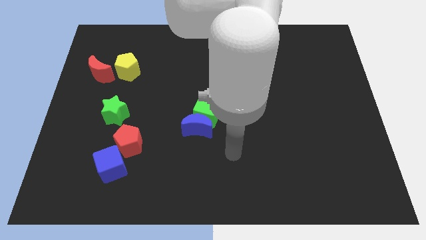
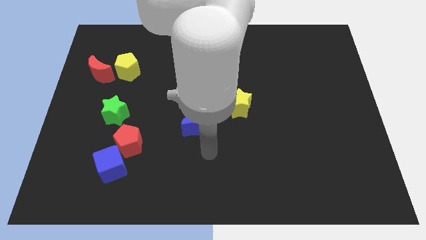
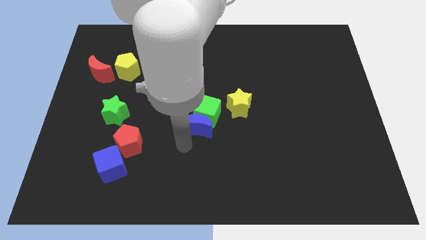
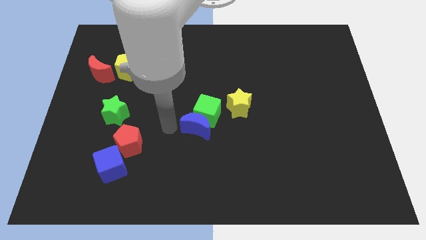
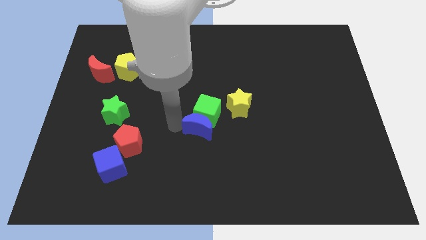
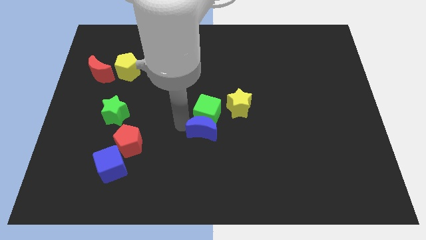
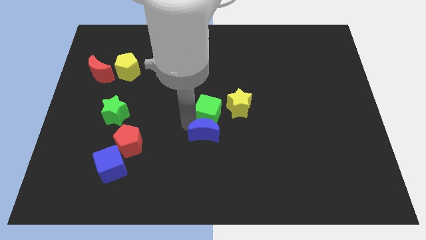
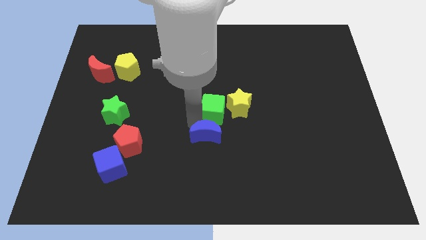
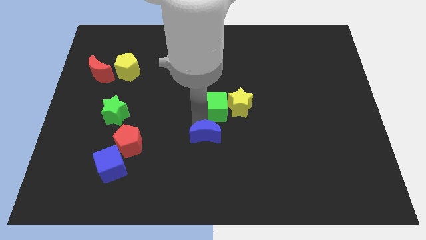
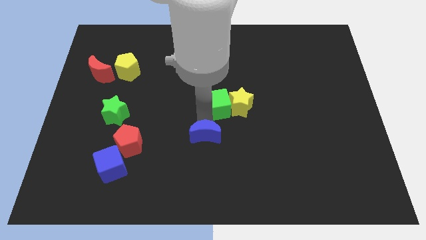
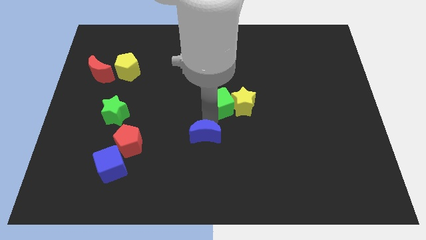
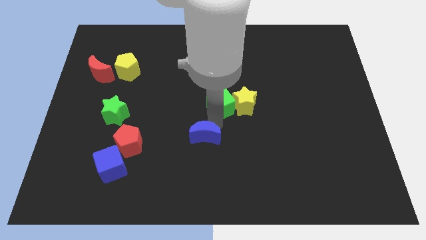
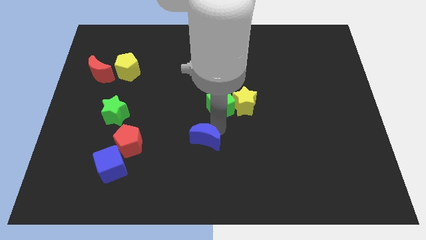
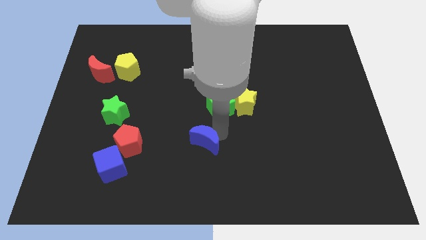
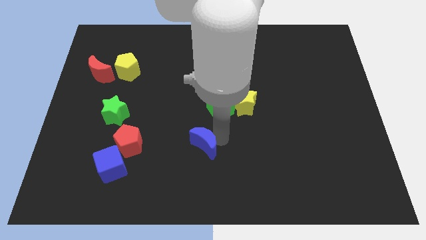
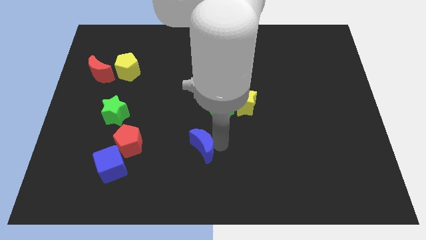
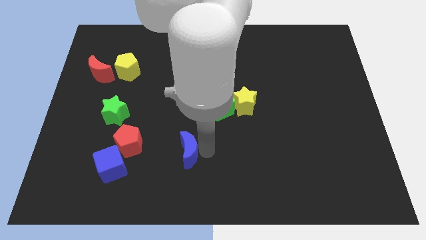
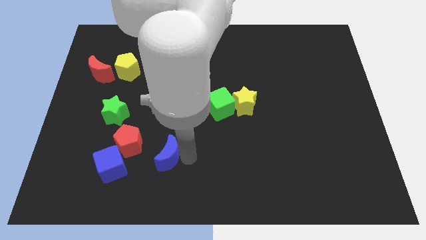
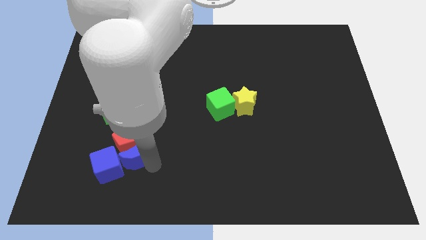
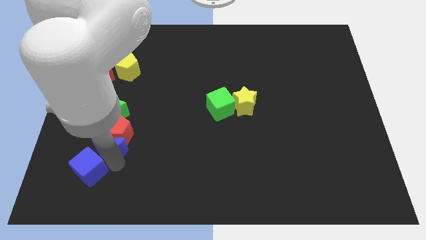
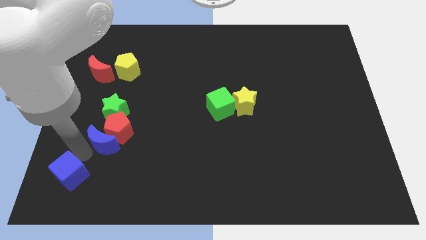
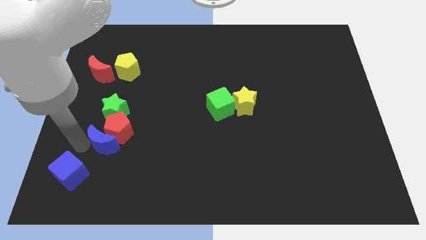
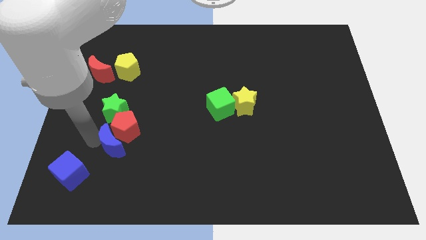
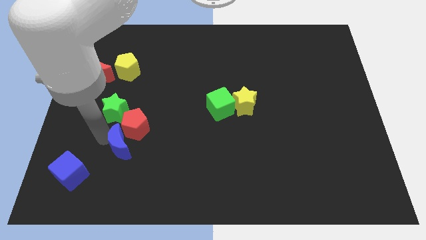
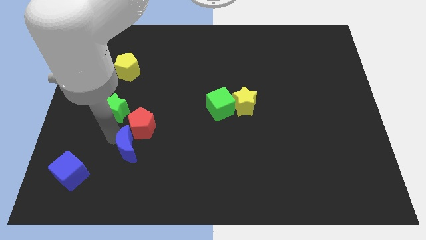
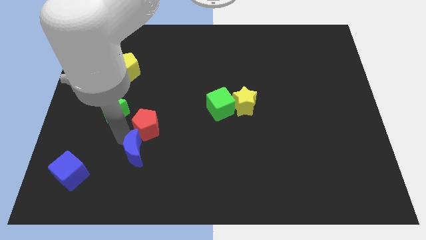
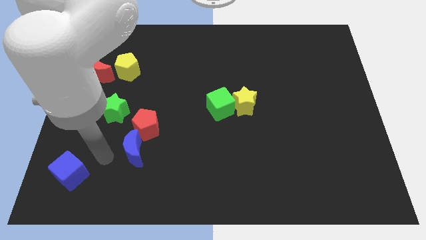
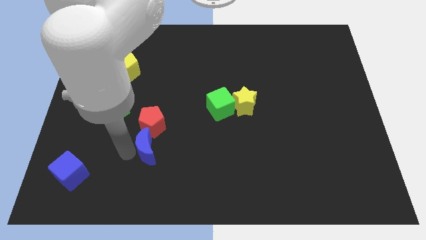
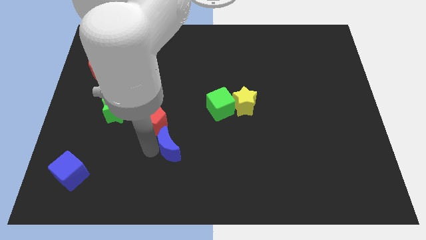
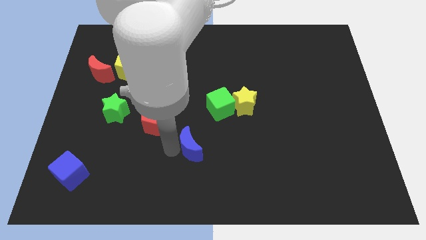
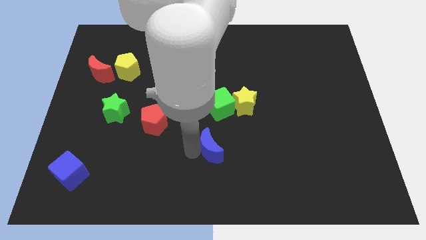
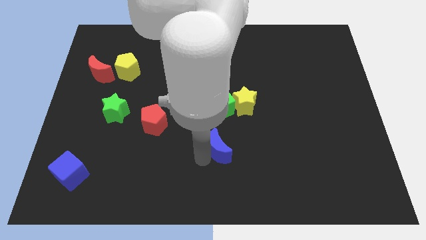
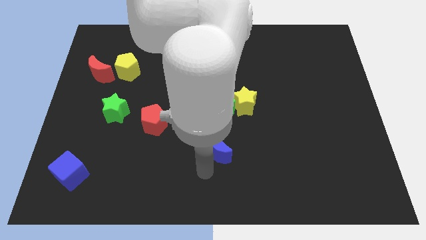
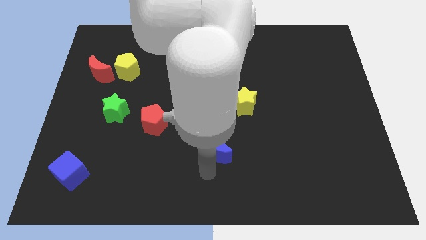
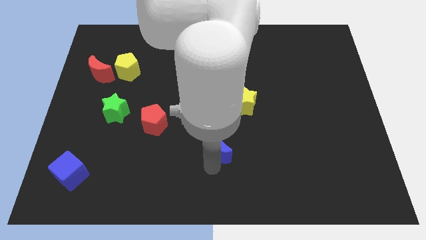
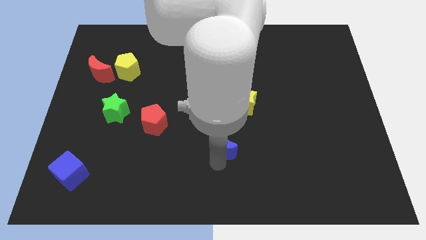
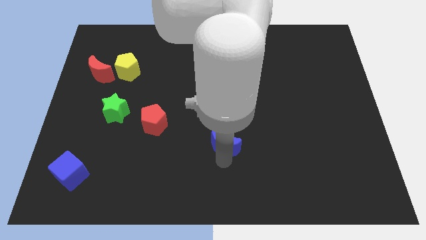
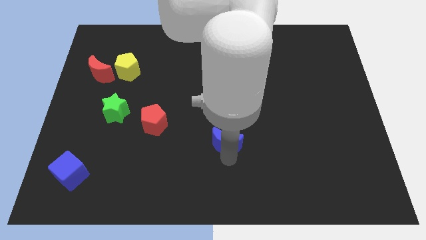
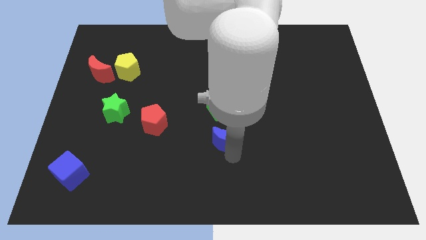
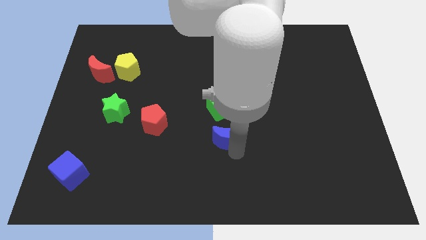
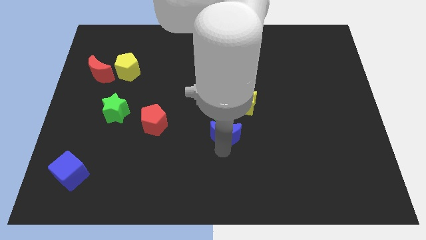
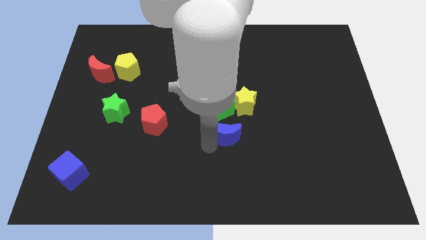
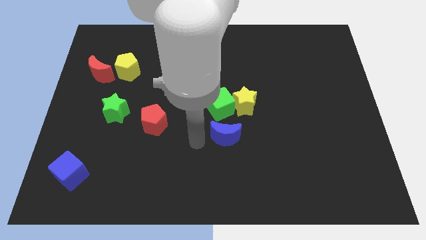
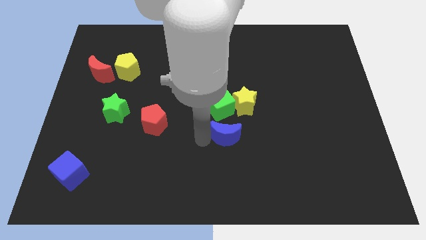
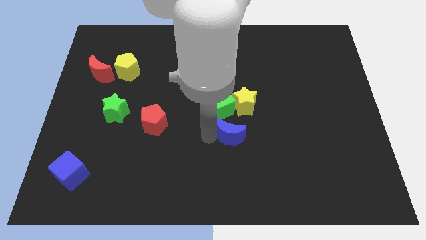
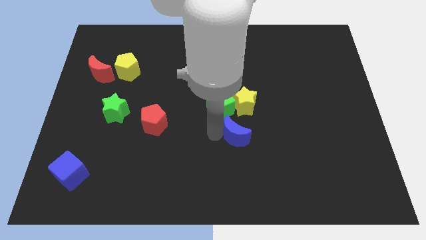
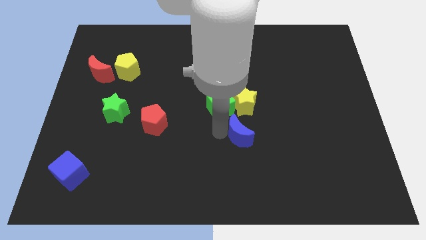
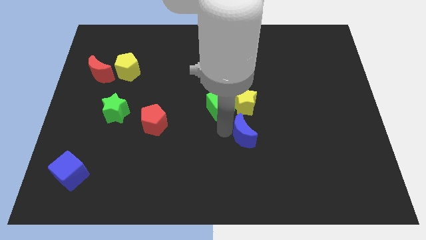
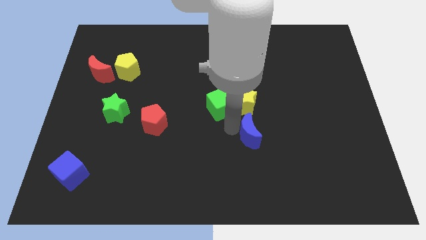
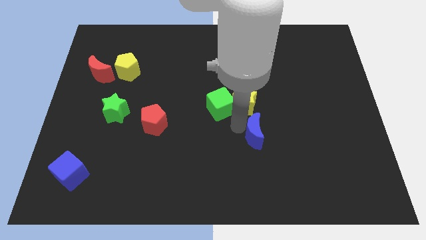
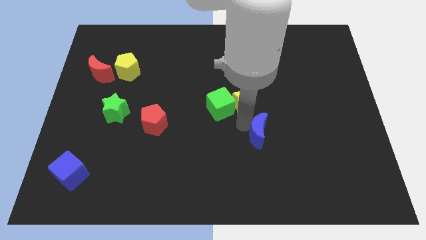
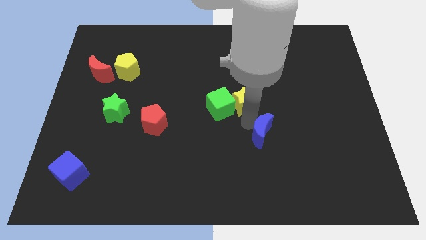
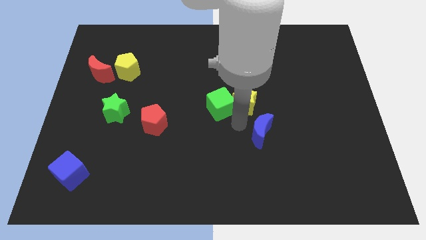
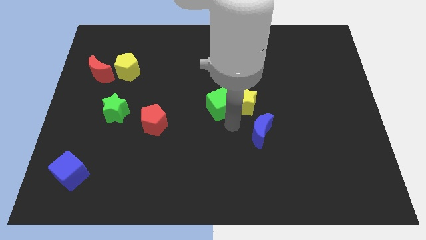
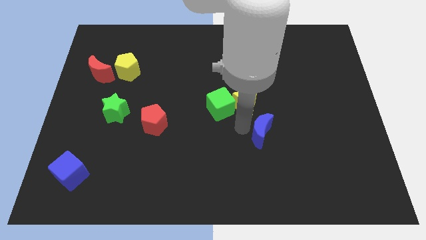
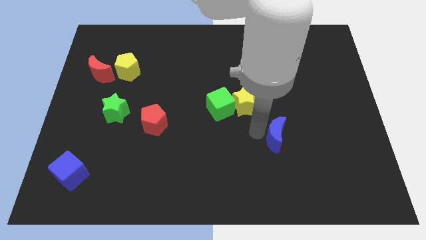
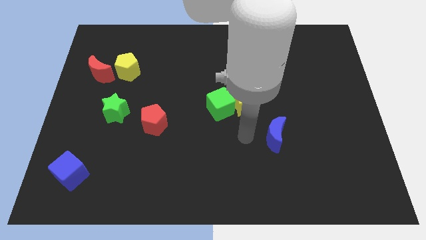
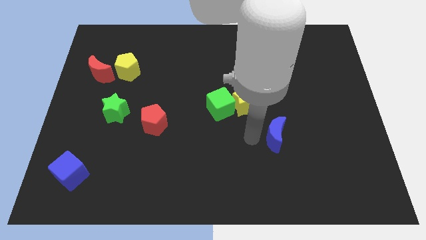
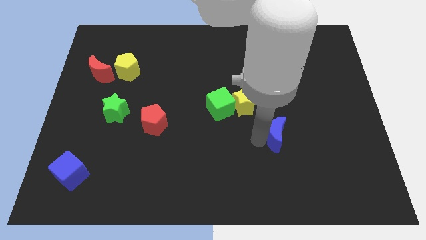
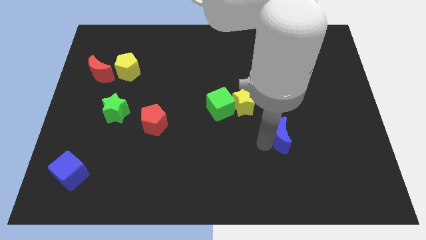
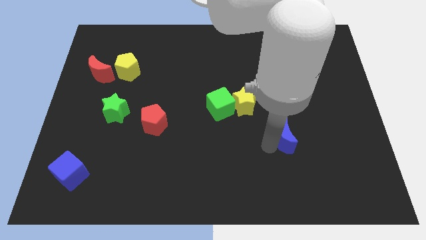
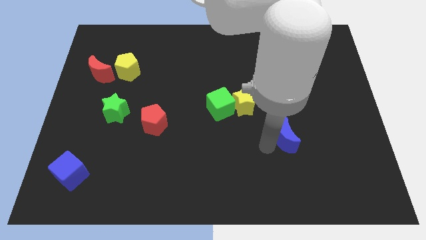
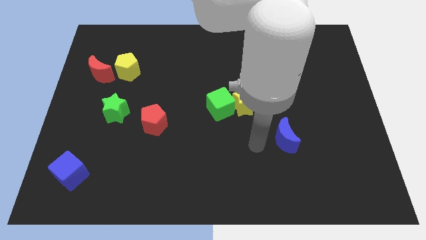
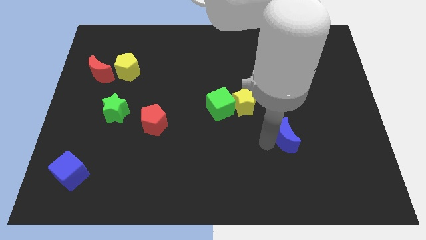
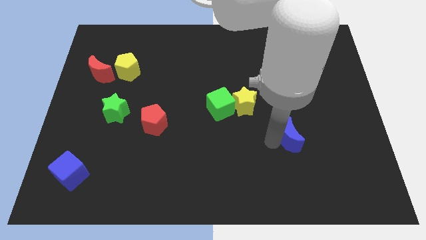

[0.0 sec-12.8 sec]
slide the blue moon right

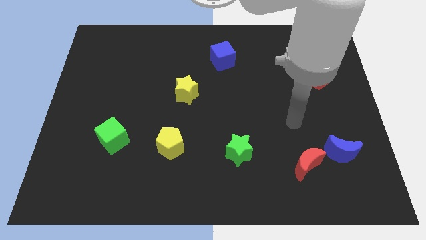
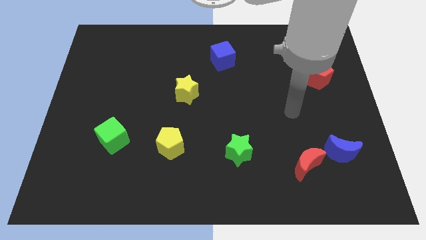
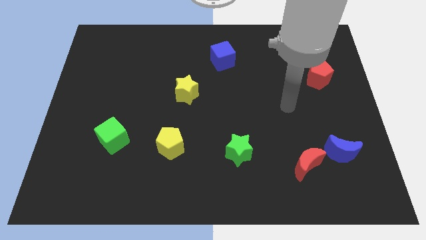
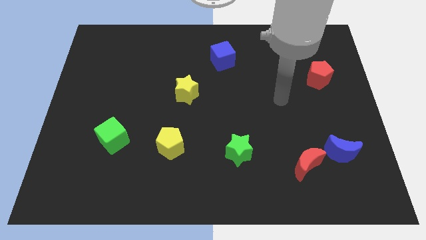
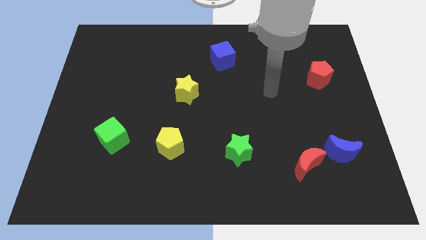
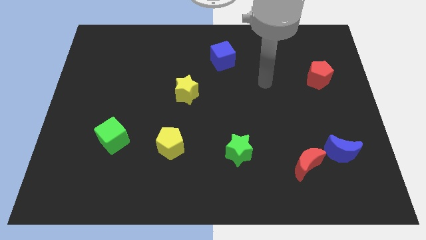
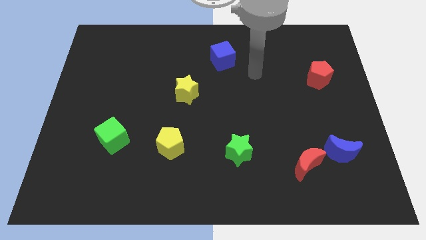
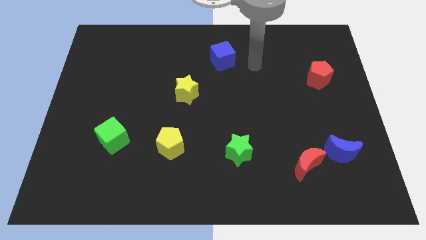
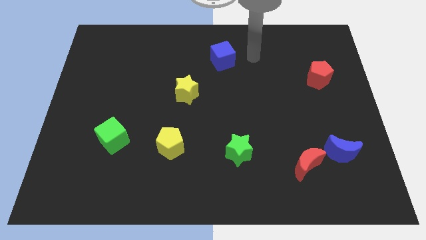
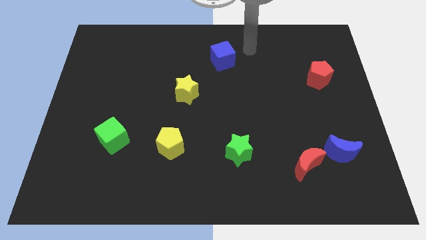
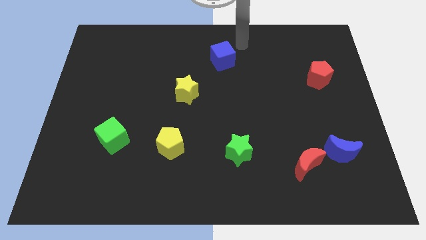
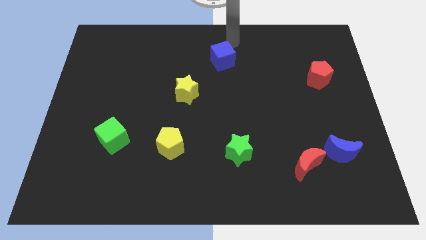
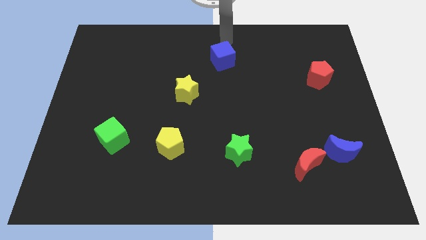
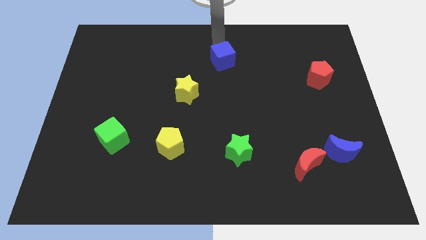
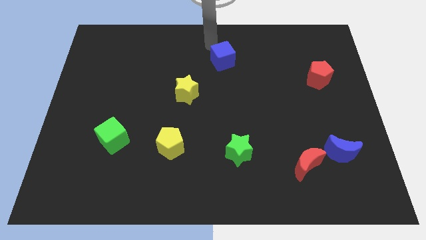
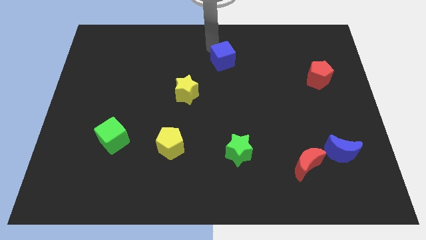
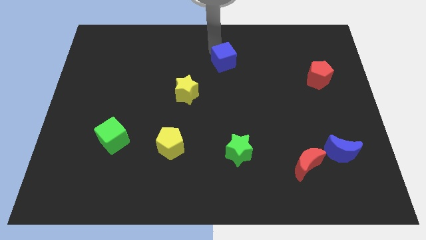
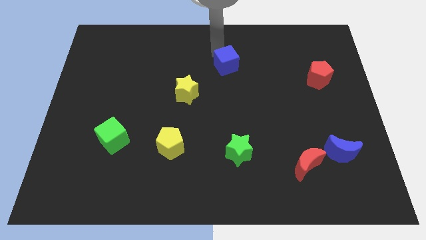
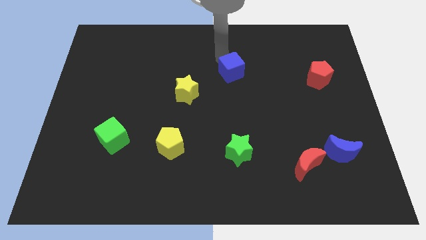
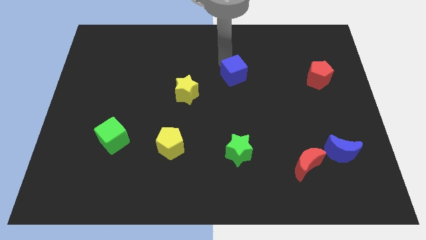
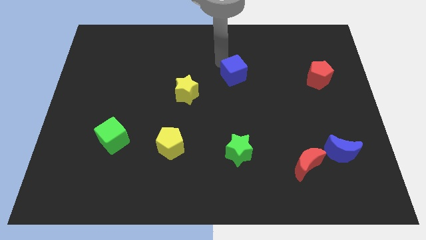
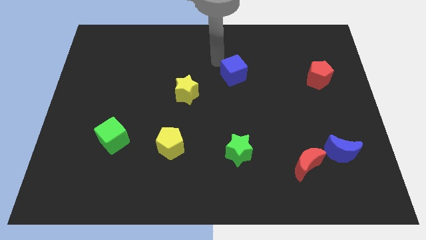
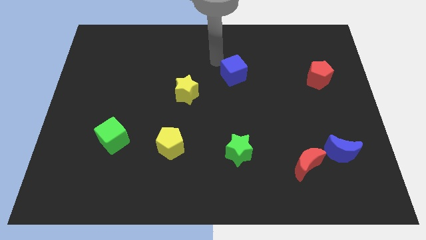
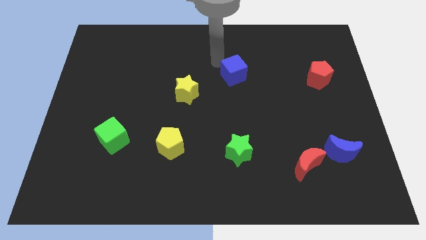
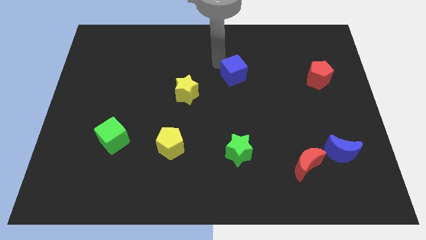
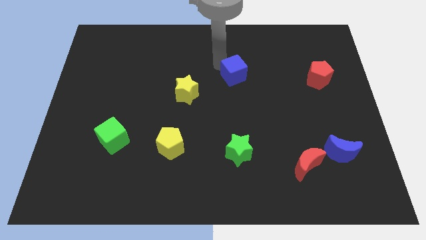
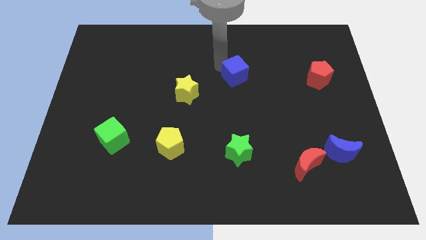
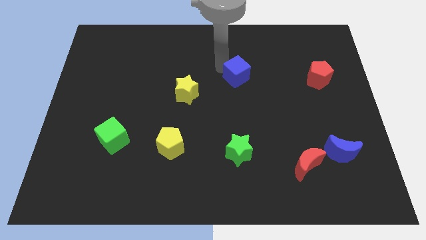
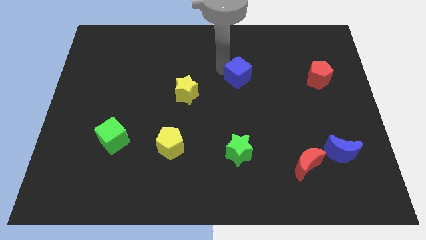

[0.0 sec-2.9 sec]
push the blue cube somewhat diagonally down and right
